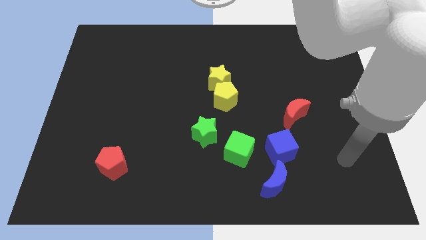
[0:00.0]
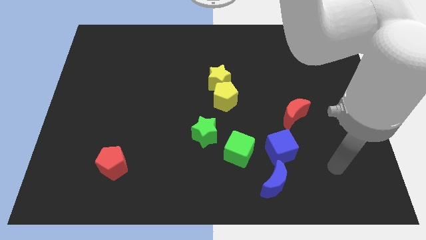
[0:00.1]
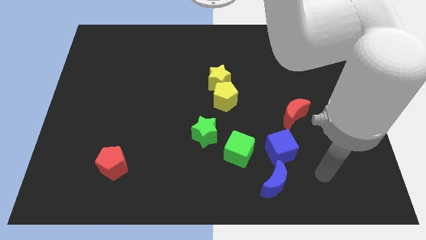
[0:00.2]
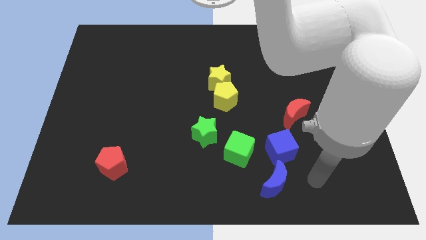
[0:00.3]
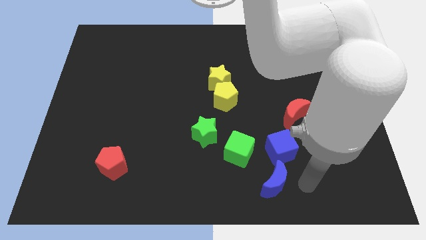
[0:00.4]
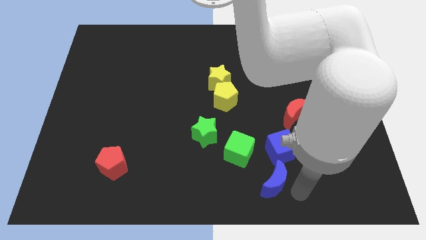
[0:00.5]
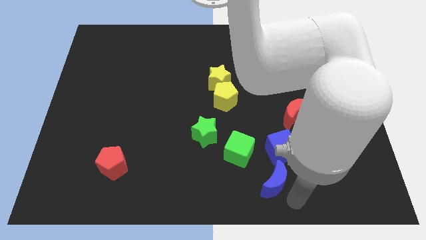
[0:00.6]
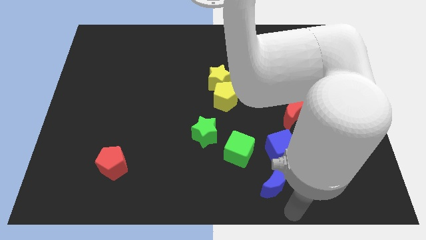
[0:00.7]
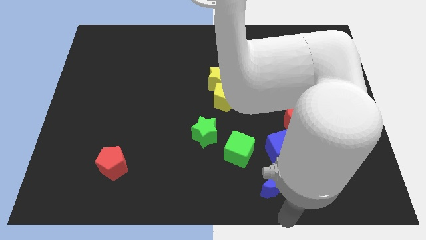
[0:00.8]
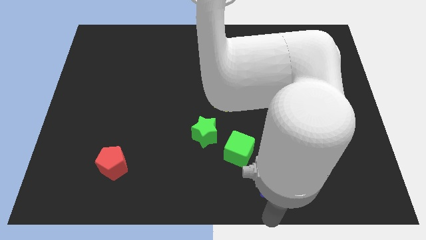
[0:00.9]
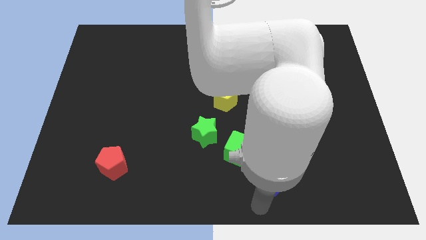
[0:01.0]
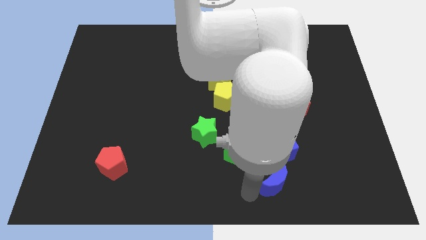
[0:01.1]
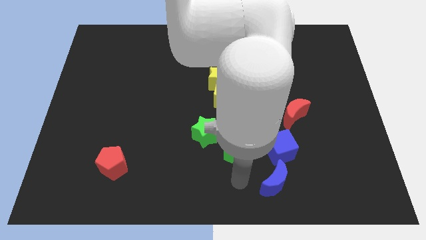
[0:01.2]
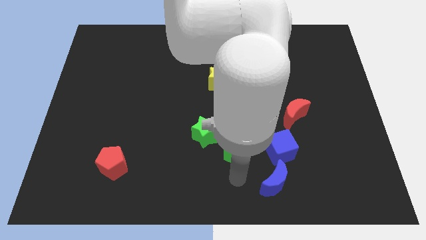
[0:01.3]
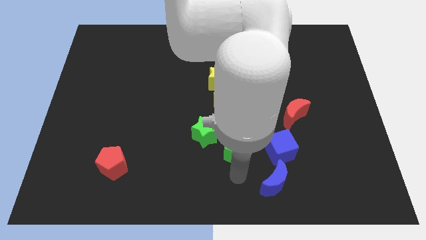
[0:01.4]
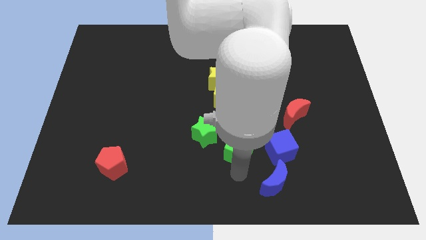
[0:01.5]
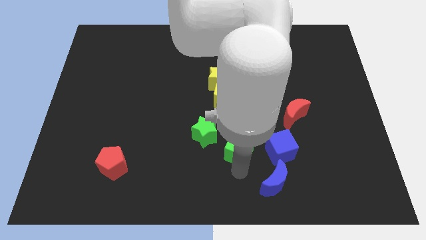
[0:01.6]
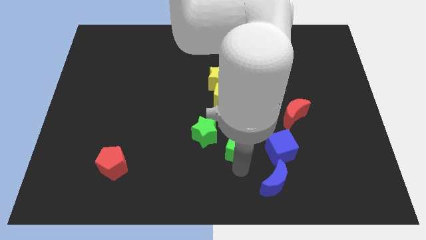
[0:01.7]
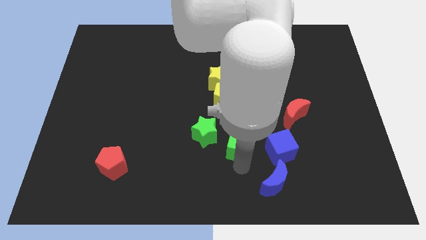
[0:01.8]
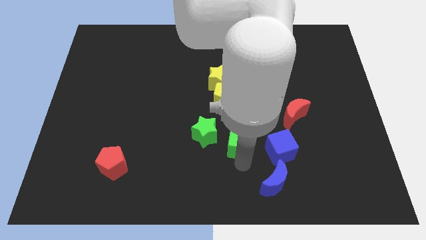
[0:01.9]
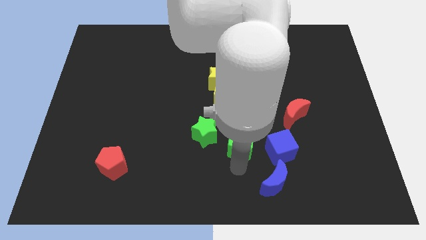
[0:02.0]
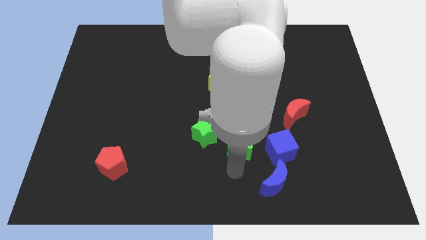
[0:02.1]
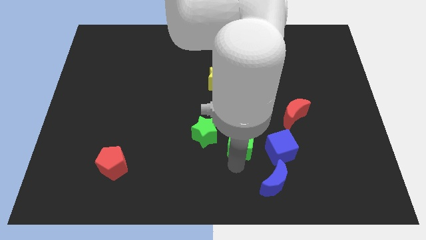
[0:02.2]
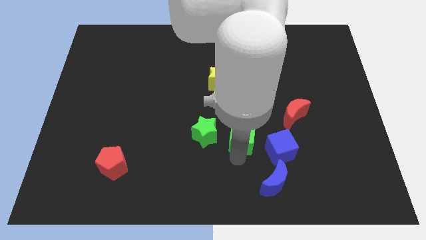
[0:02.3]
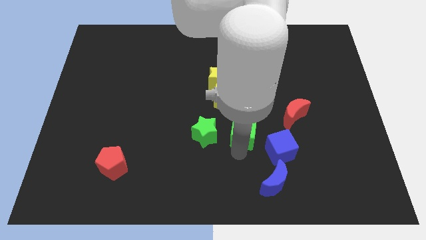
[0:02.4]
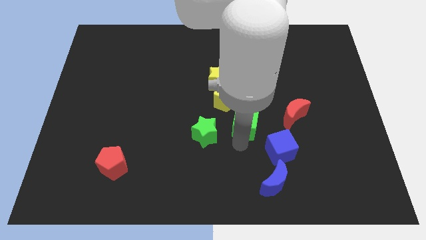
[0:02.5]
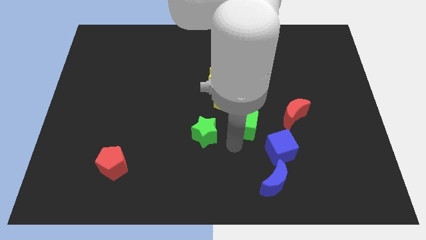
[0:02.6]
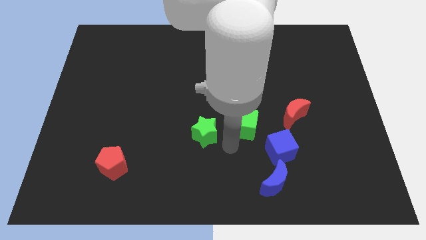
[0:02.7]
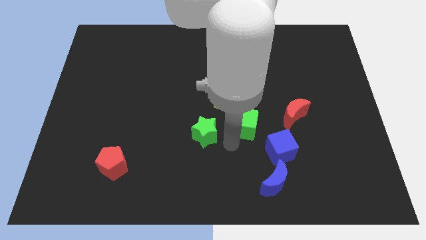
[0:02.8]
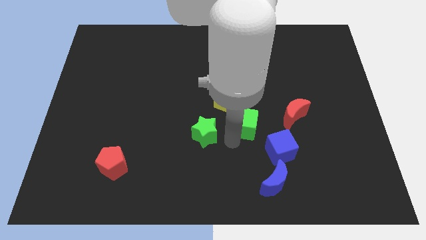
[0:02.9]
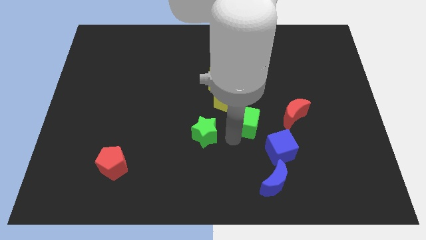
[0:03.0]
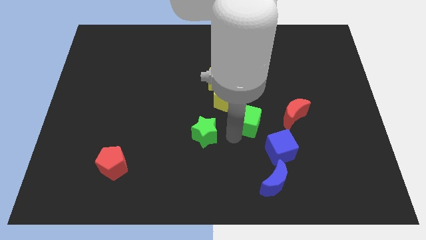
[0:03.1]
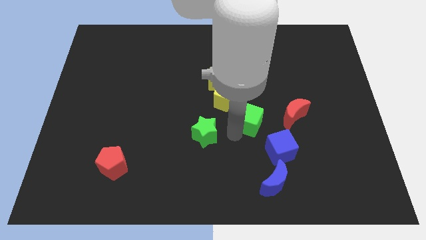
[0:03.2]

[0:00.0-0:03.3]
slide the green cube up and right a little bit

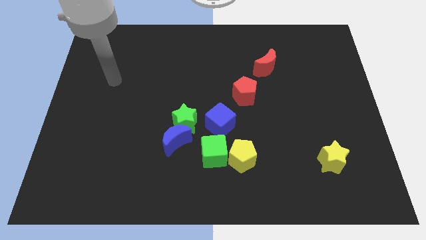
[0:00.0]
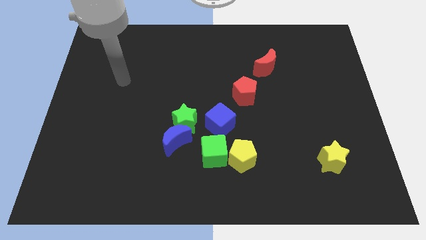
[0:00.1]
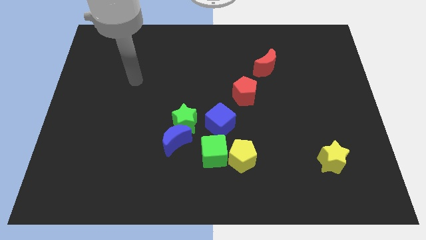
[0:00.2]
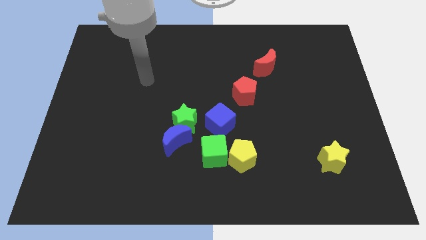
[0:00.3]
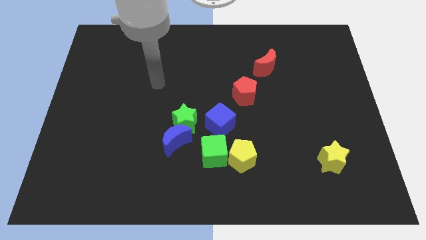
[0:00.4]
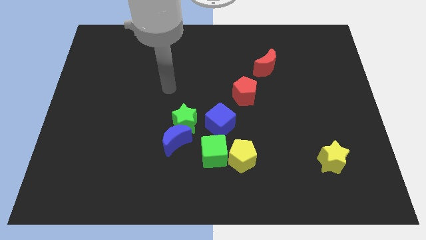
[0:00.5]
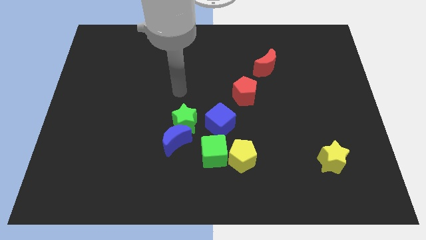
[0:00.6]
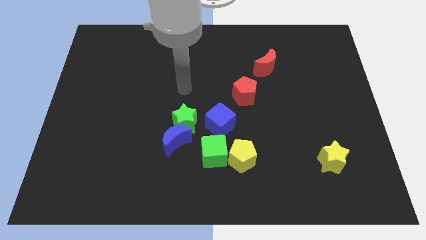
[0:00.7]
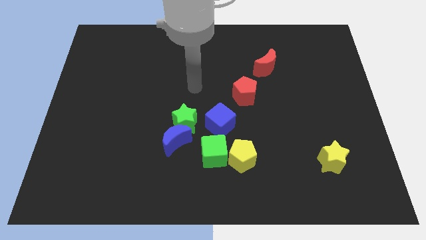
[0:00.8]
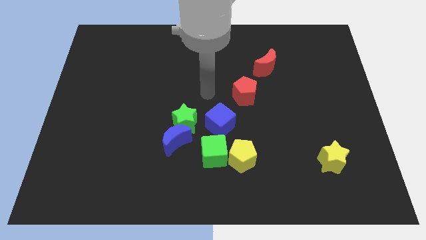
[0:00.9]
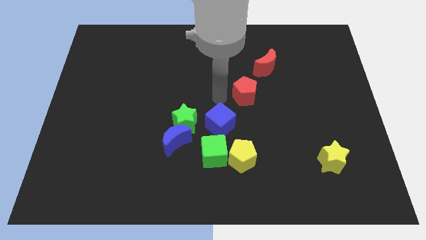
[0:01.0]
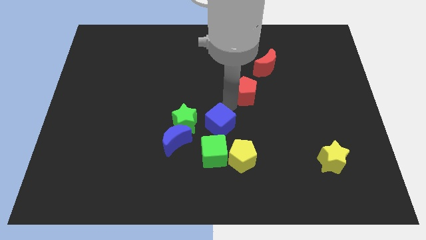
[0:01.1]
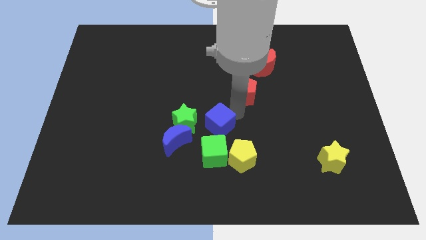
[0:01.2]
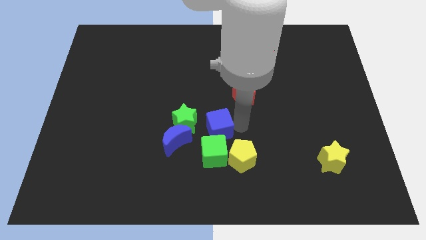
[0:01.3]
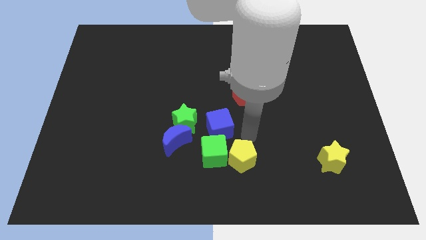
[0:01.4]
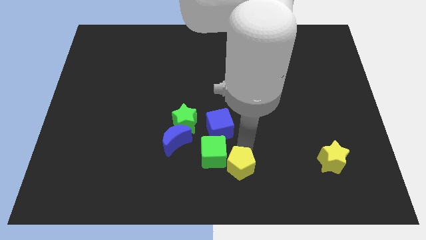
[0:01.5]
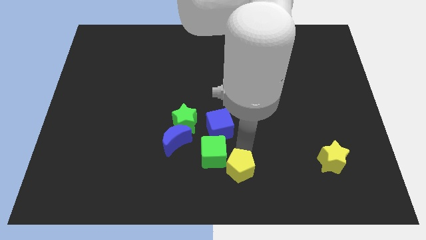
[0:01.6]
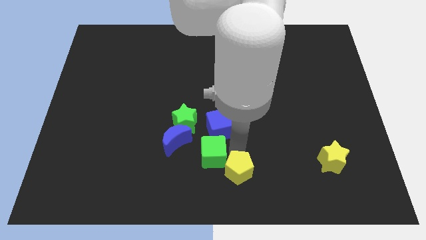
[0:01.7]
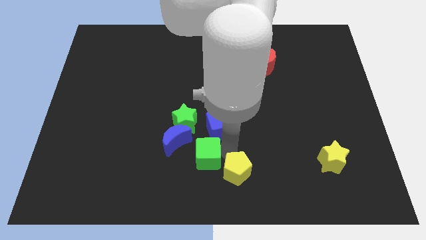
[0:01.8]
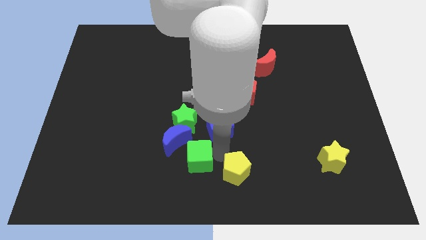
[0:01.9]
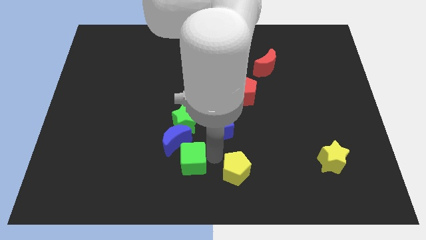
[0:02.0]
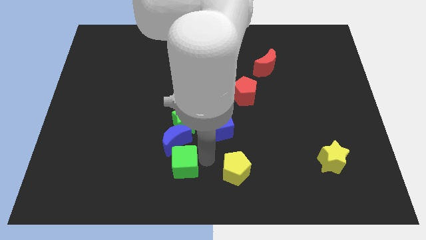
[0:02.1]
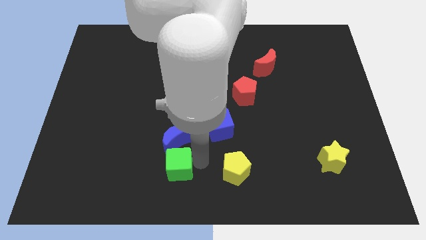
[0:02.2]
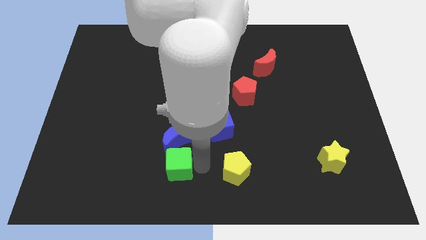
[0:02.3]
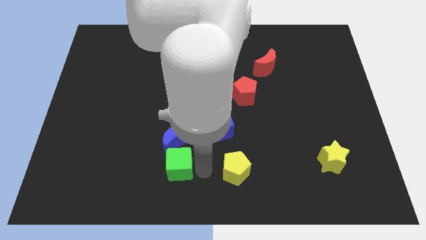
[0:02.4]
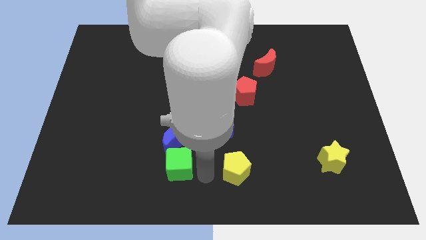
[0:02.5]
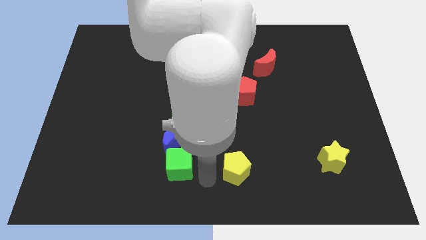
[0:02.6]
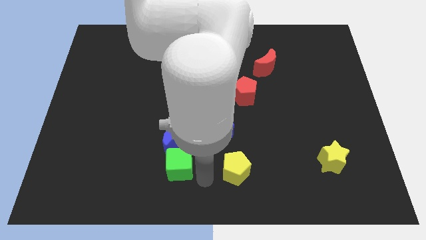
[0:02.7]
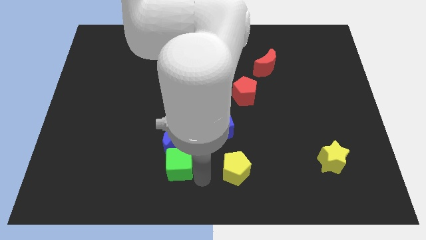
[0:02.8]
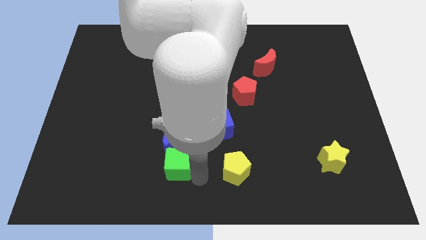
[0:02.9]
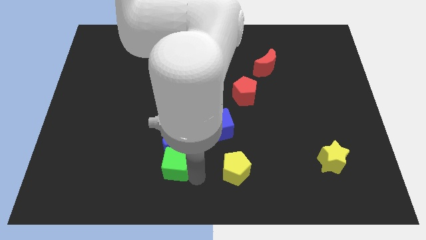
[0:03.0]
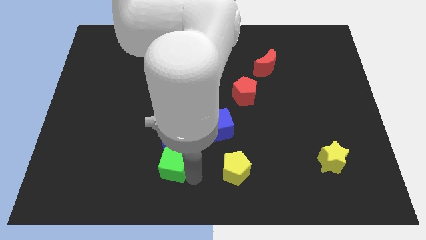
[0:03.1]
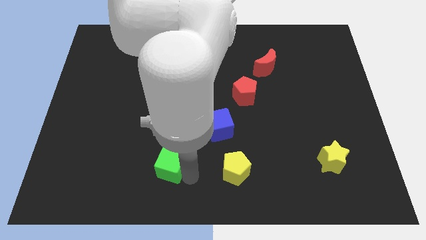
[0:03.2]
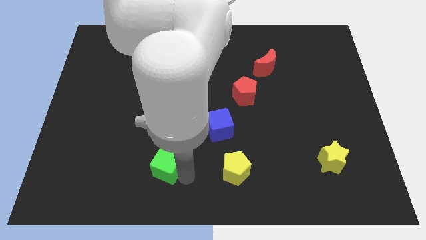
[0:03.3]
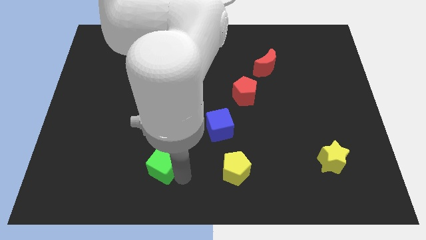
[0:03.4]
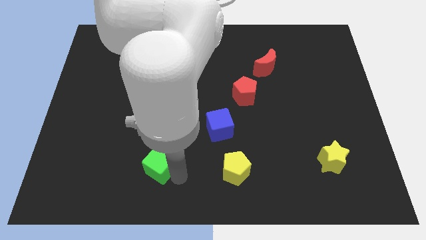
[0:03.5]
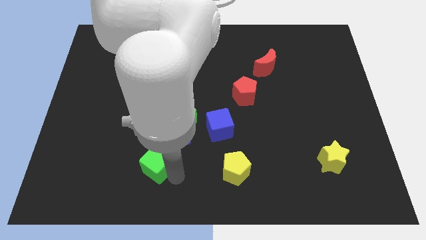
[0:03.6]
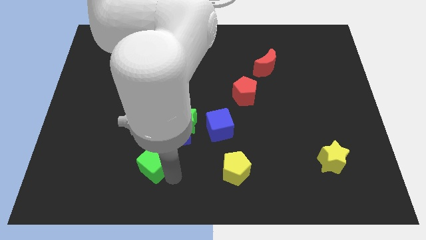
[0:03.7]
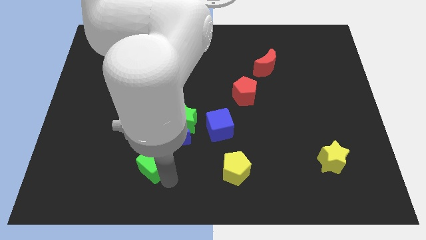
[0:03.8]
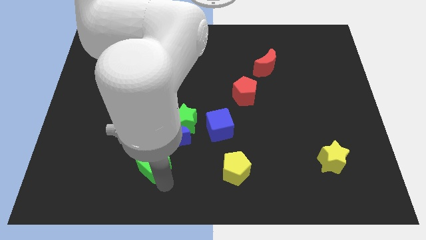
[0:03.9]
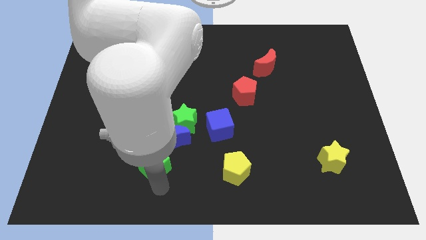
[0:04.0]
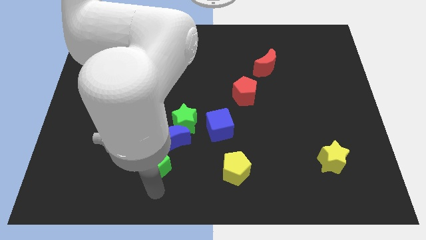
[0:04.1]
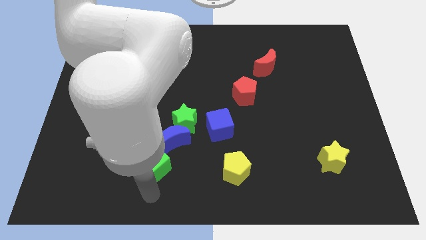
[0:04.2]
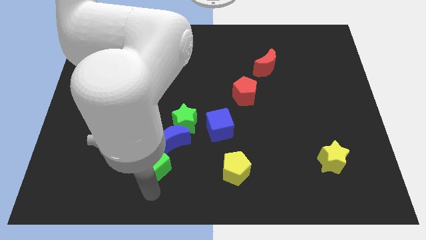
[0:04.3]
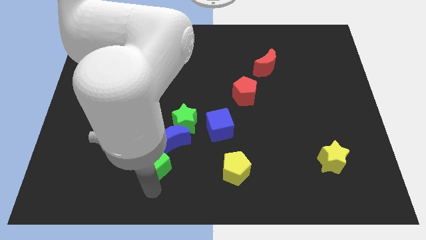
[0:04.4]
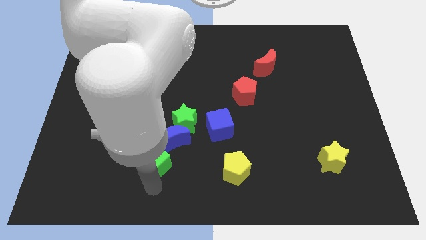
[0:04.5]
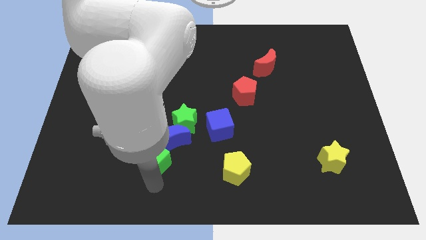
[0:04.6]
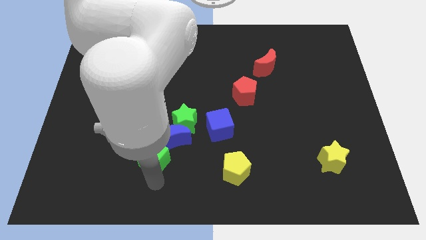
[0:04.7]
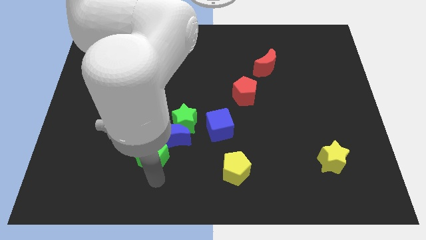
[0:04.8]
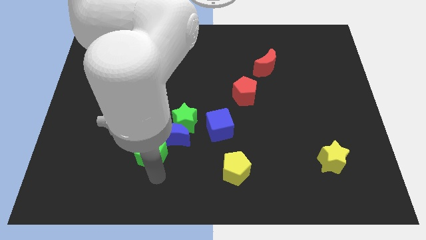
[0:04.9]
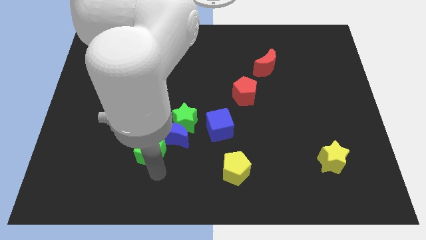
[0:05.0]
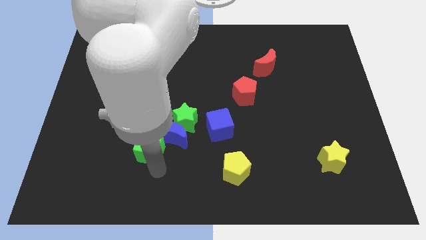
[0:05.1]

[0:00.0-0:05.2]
slide the green cube diagonally upwards and left a bit
